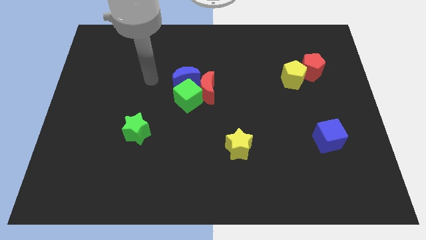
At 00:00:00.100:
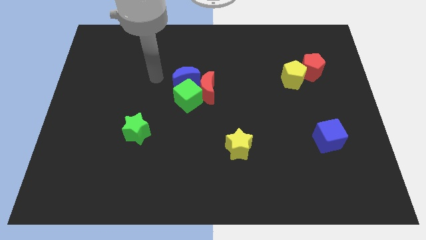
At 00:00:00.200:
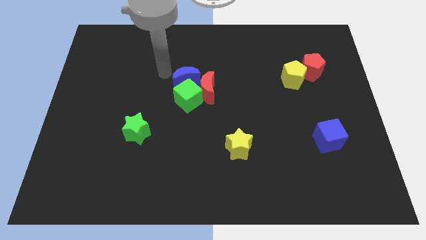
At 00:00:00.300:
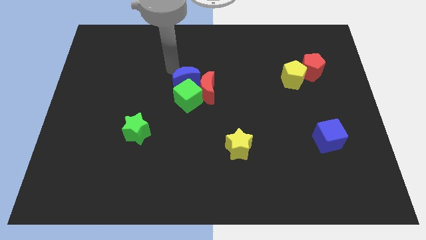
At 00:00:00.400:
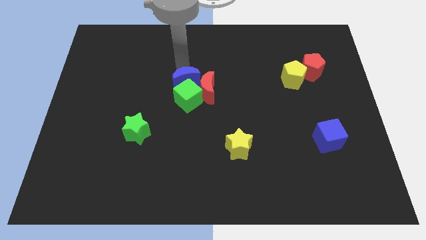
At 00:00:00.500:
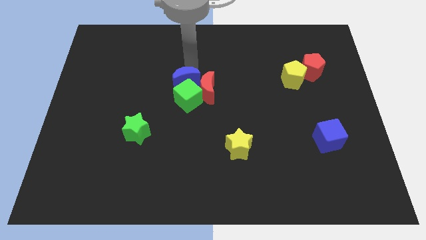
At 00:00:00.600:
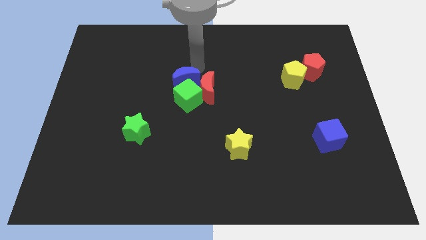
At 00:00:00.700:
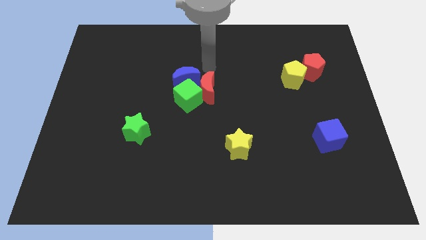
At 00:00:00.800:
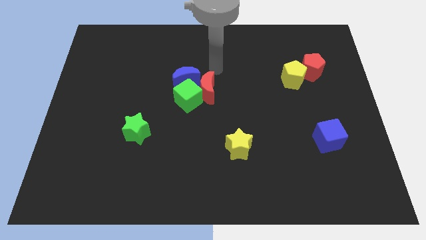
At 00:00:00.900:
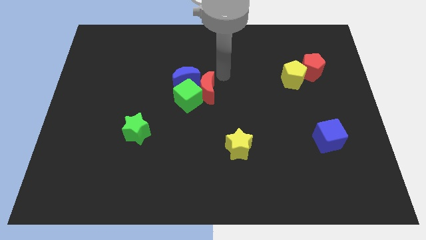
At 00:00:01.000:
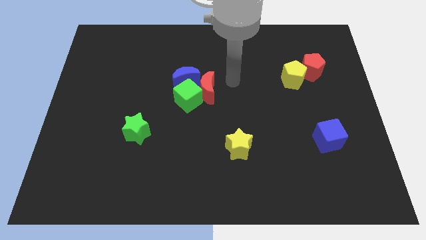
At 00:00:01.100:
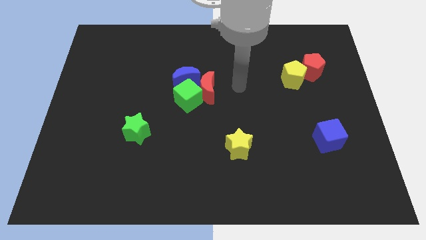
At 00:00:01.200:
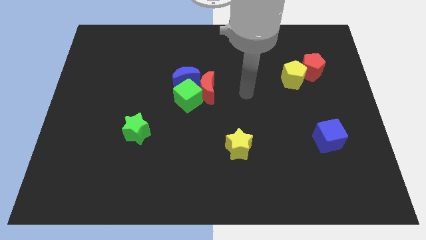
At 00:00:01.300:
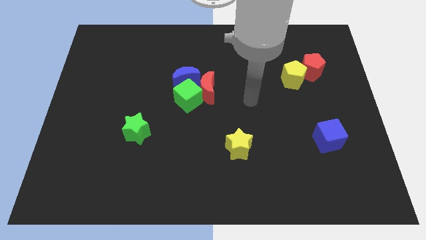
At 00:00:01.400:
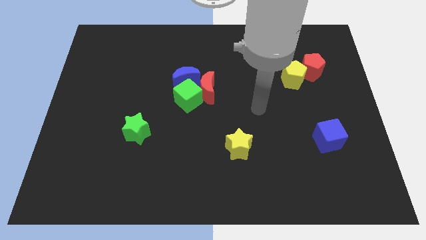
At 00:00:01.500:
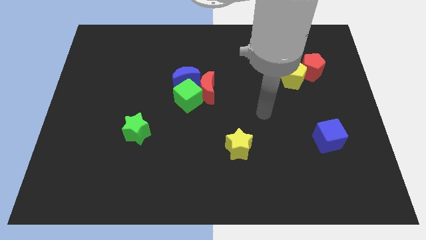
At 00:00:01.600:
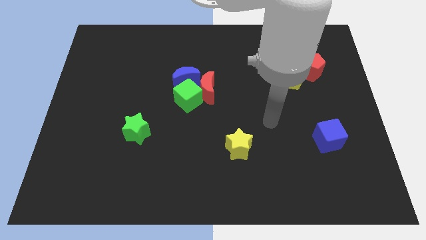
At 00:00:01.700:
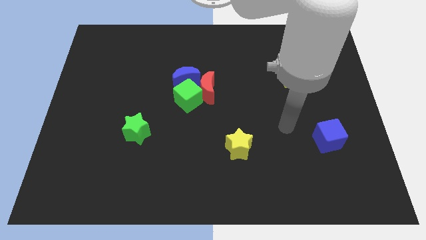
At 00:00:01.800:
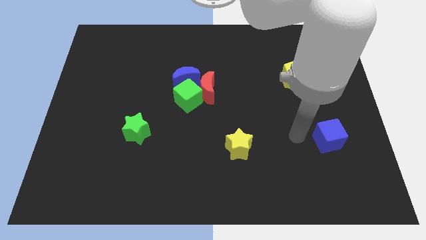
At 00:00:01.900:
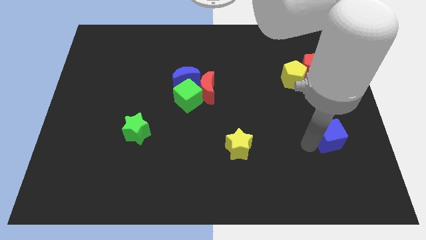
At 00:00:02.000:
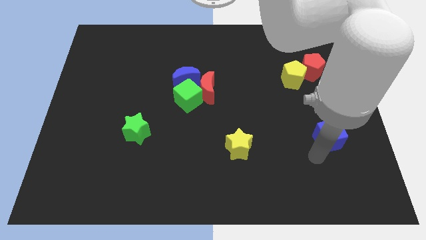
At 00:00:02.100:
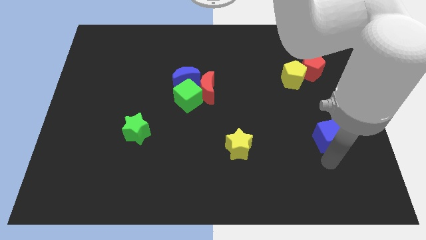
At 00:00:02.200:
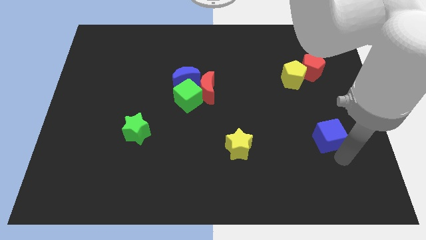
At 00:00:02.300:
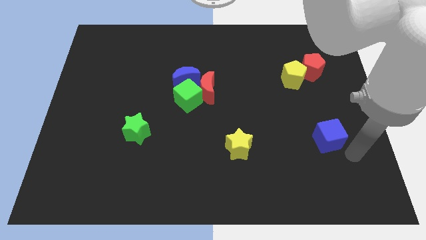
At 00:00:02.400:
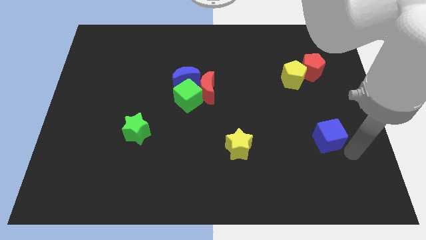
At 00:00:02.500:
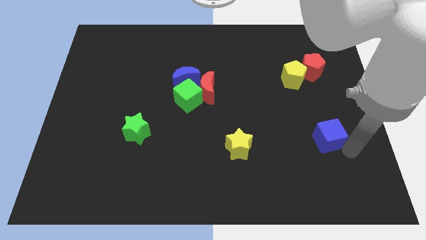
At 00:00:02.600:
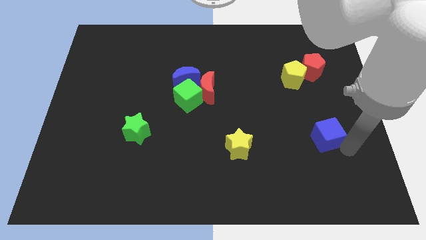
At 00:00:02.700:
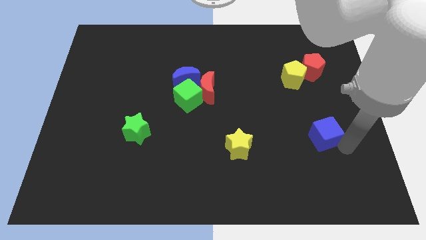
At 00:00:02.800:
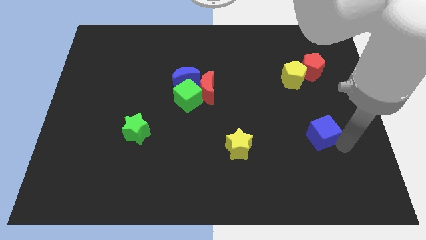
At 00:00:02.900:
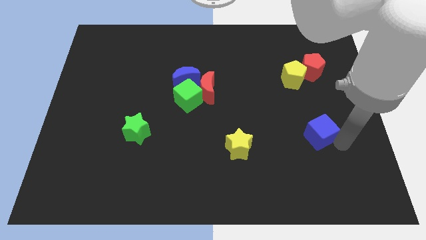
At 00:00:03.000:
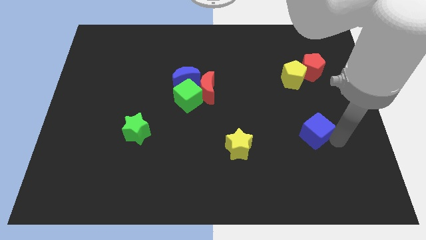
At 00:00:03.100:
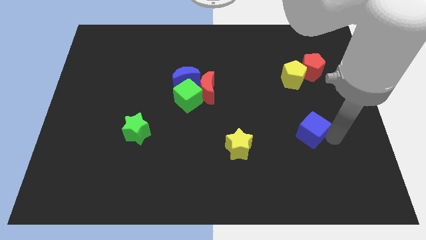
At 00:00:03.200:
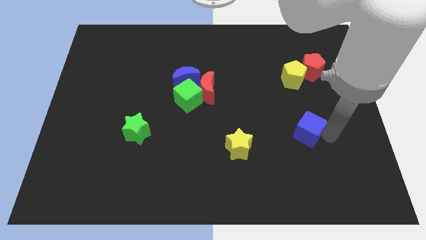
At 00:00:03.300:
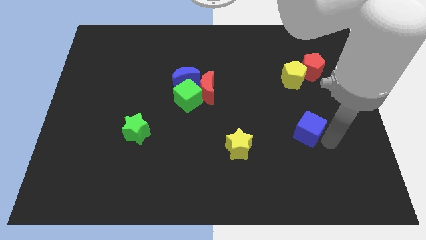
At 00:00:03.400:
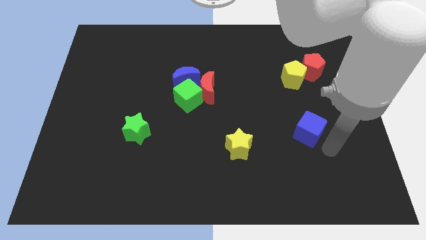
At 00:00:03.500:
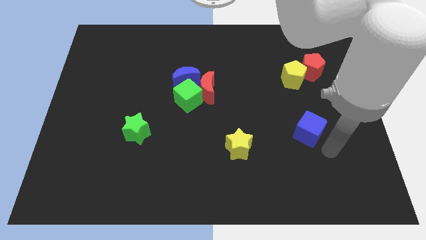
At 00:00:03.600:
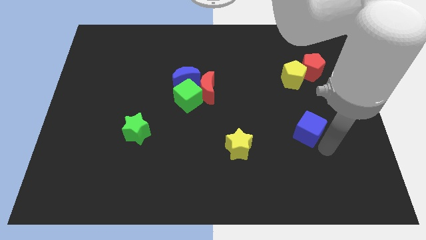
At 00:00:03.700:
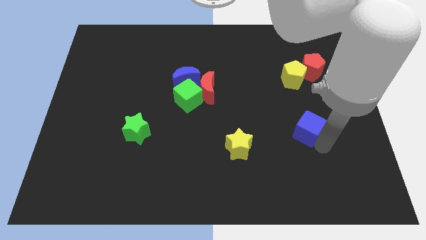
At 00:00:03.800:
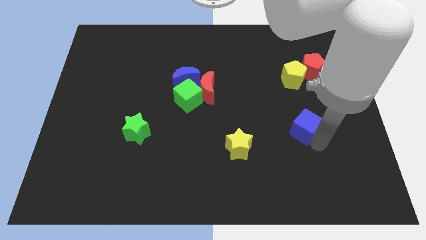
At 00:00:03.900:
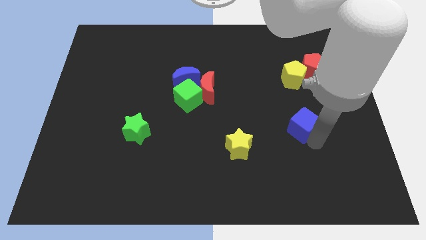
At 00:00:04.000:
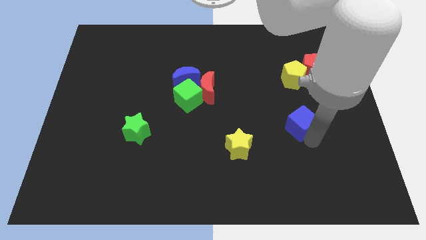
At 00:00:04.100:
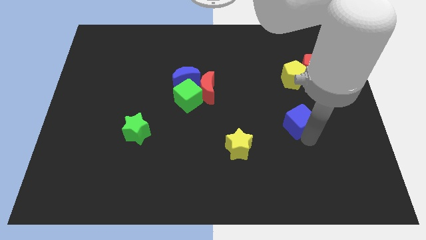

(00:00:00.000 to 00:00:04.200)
slightly push the blue cube diagonally up and left

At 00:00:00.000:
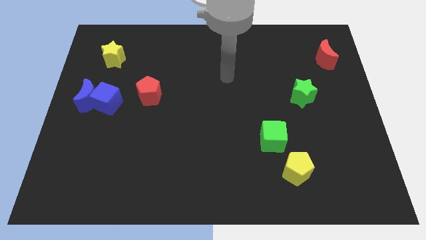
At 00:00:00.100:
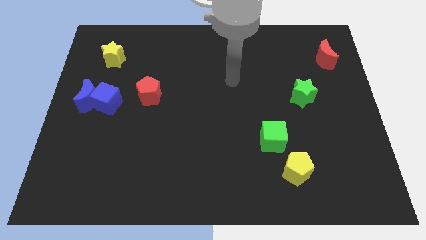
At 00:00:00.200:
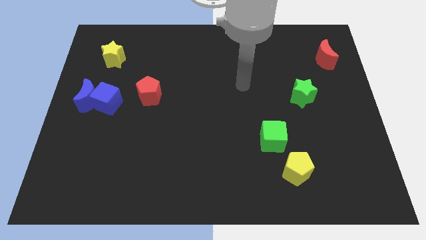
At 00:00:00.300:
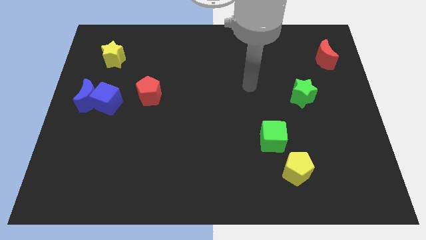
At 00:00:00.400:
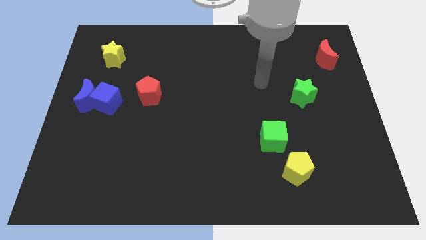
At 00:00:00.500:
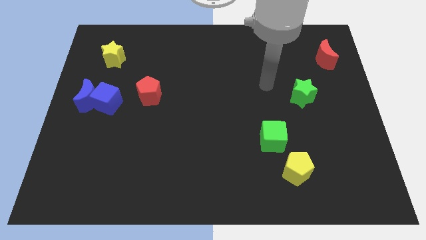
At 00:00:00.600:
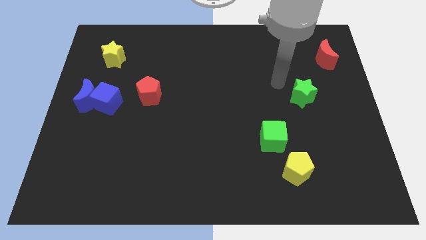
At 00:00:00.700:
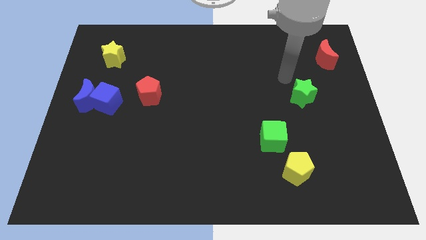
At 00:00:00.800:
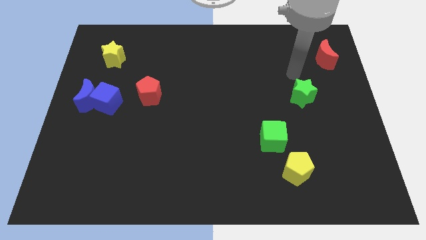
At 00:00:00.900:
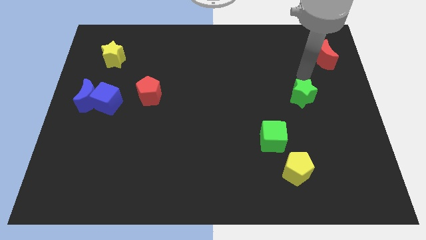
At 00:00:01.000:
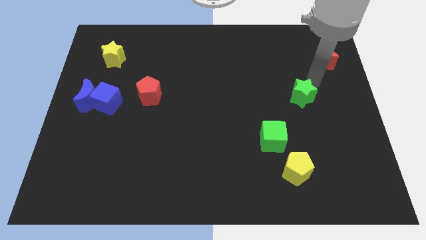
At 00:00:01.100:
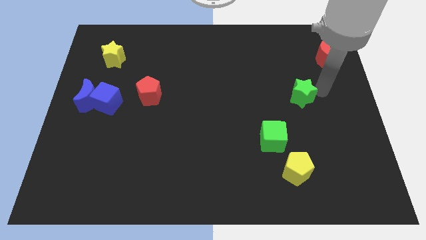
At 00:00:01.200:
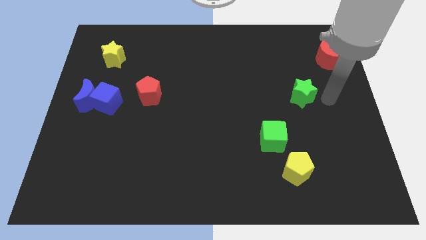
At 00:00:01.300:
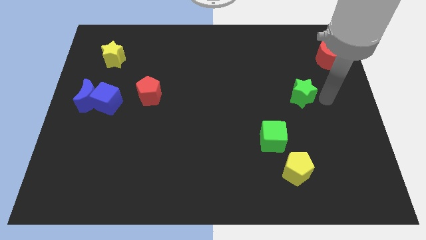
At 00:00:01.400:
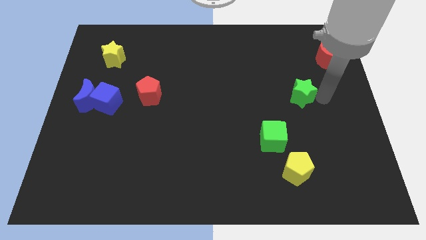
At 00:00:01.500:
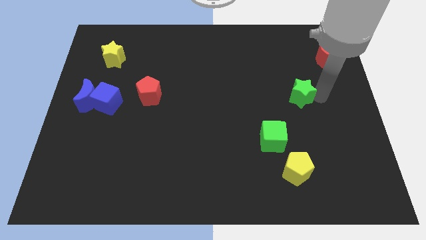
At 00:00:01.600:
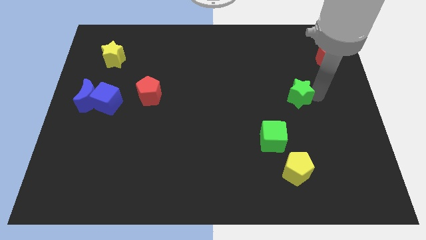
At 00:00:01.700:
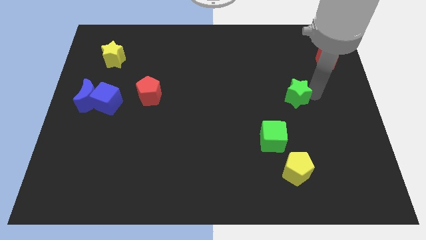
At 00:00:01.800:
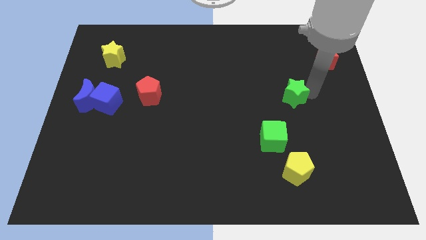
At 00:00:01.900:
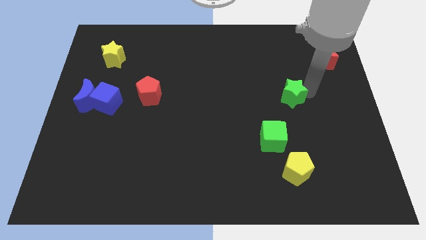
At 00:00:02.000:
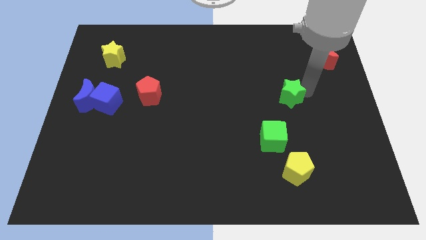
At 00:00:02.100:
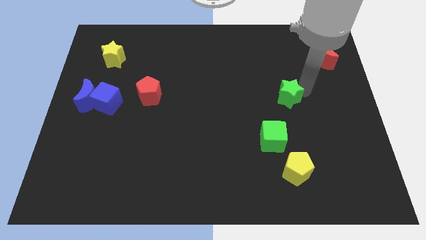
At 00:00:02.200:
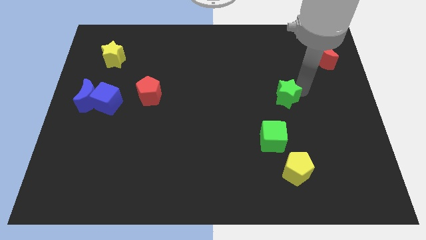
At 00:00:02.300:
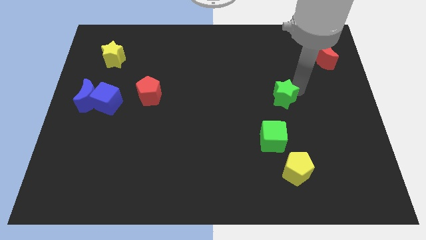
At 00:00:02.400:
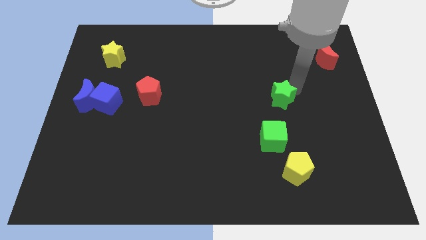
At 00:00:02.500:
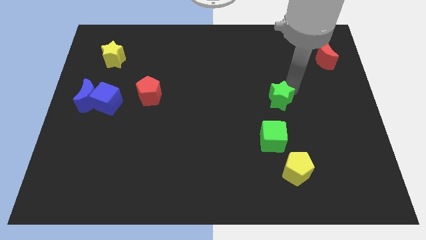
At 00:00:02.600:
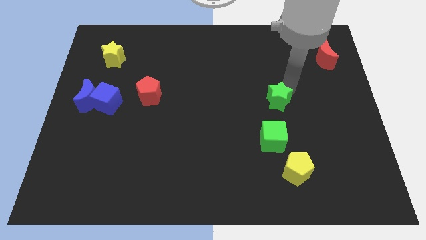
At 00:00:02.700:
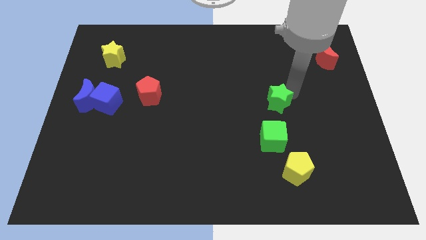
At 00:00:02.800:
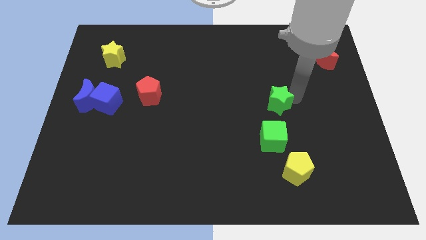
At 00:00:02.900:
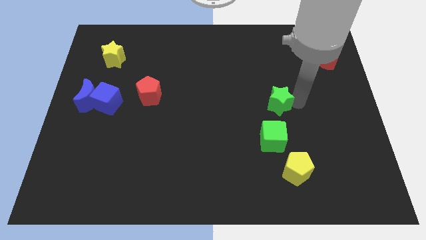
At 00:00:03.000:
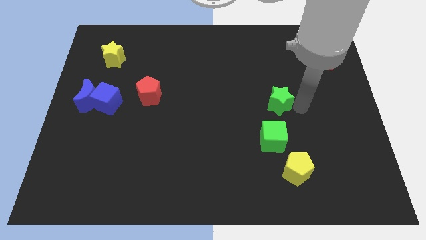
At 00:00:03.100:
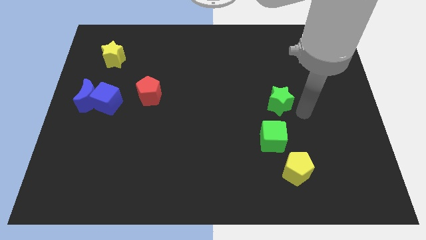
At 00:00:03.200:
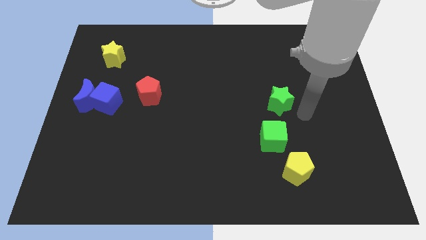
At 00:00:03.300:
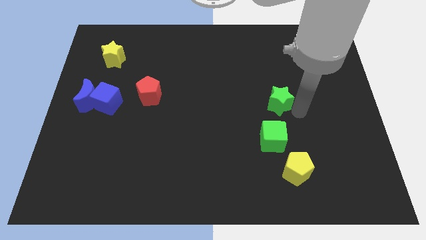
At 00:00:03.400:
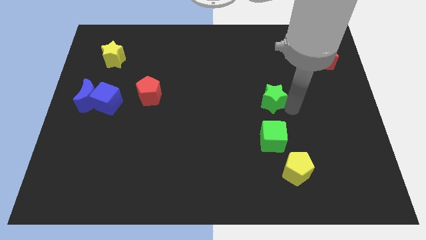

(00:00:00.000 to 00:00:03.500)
move the green star a bit left
